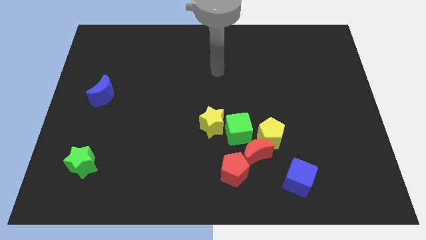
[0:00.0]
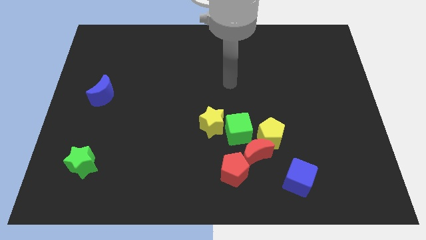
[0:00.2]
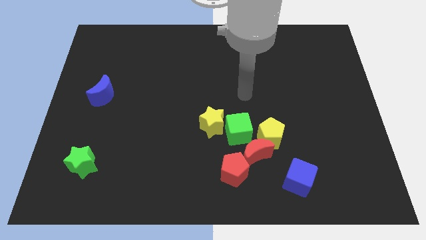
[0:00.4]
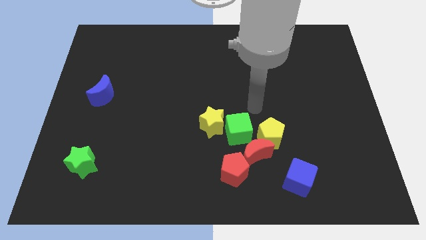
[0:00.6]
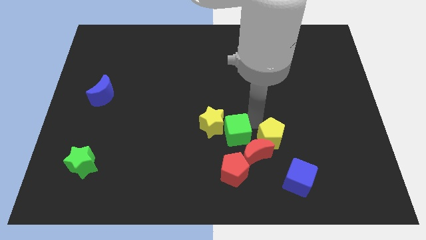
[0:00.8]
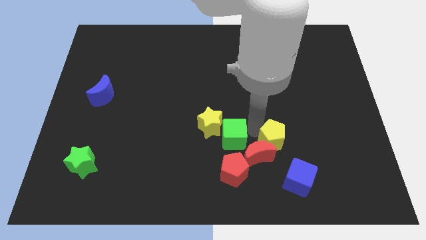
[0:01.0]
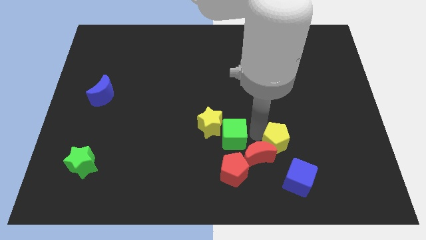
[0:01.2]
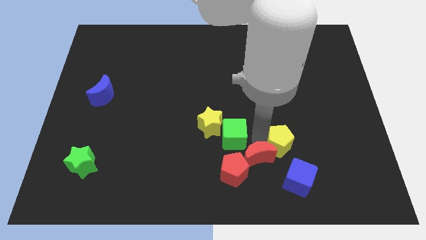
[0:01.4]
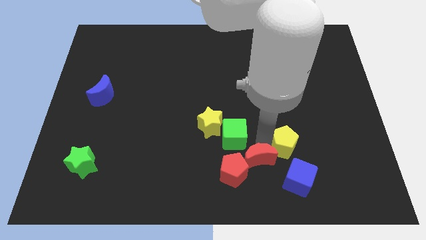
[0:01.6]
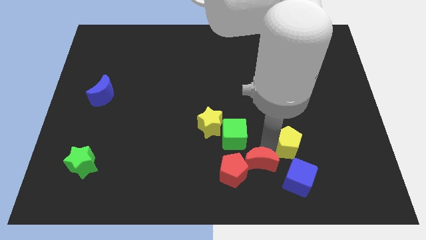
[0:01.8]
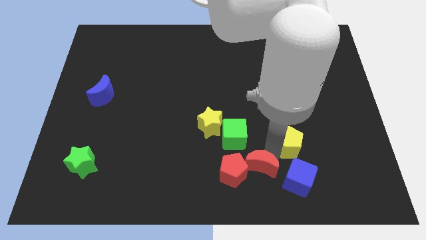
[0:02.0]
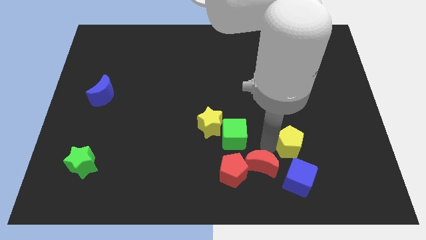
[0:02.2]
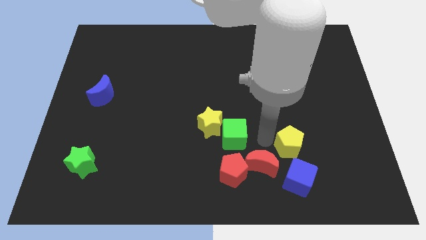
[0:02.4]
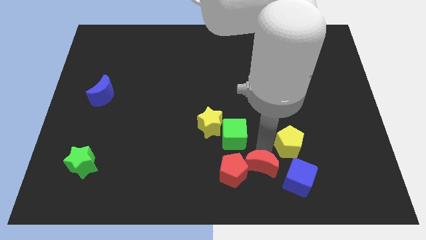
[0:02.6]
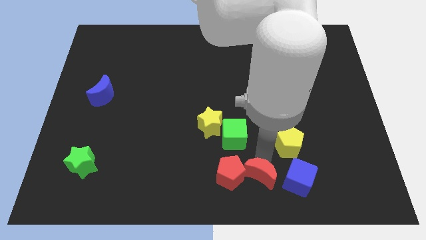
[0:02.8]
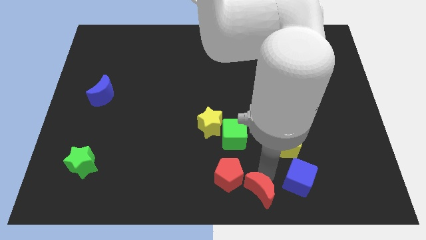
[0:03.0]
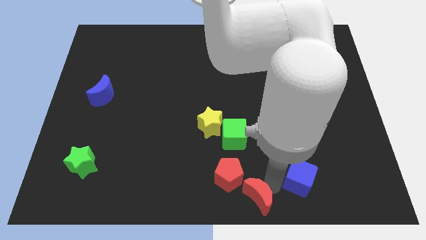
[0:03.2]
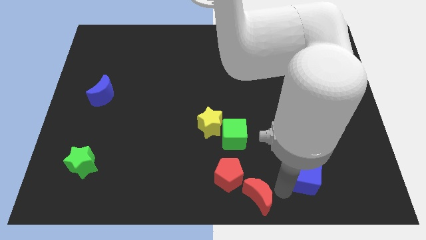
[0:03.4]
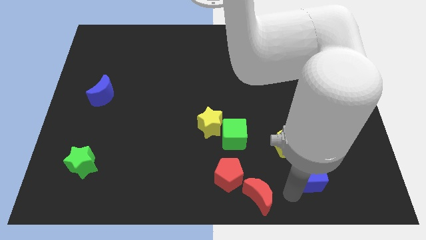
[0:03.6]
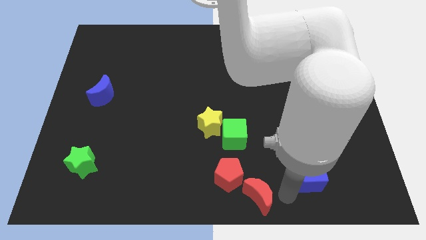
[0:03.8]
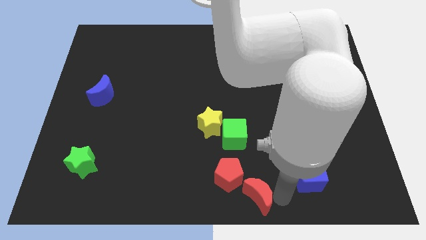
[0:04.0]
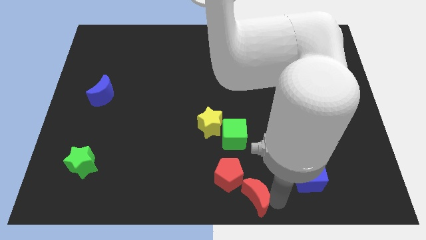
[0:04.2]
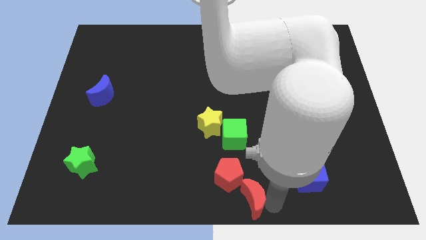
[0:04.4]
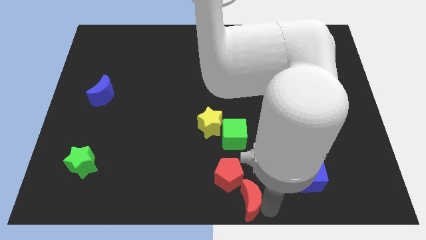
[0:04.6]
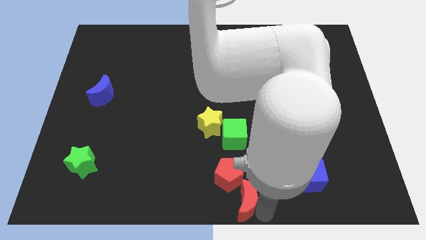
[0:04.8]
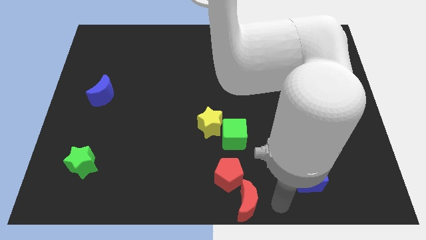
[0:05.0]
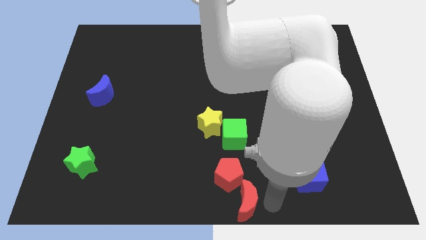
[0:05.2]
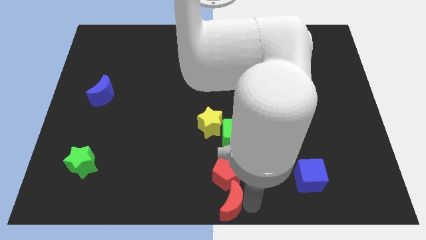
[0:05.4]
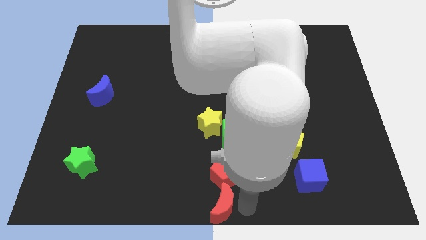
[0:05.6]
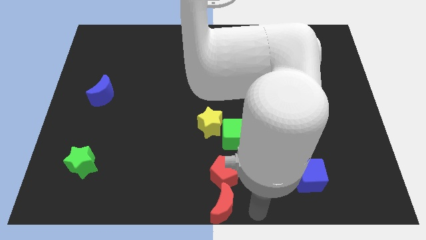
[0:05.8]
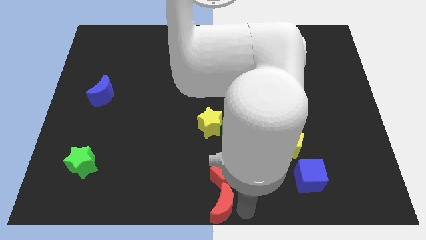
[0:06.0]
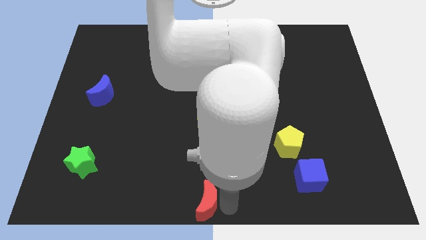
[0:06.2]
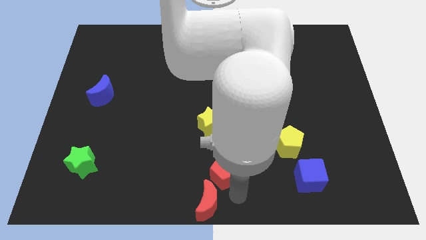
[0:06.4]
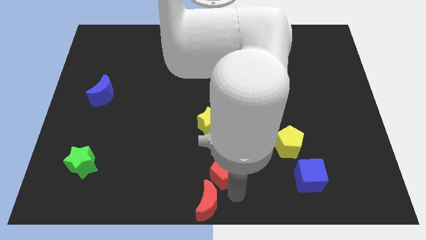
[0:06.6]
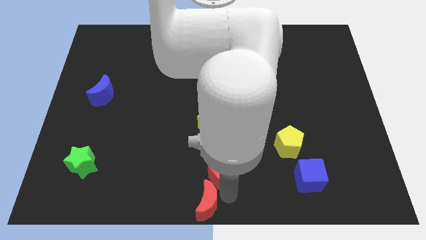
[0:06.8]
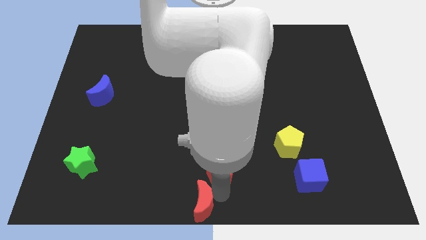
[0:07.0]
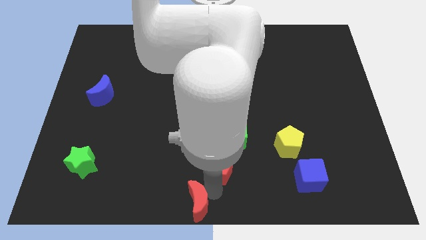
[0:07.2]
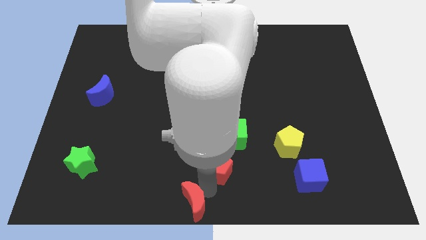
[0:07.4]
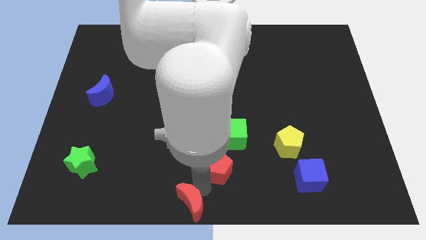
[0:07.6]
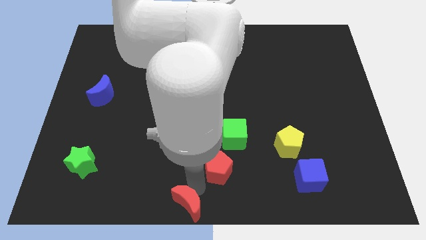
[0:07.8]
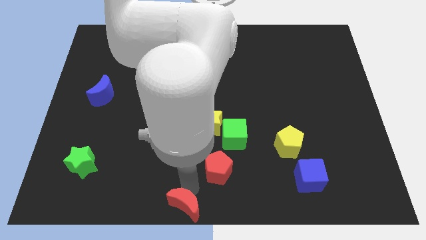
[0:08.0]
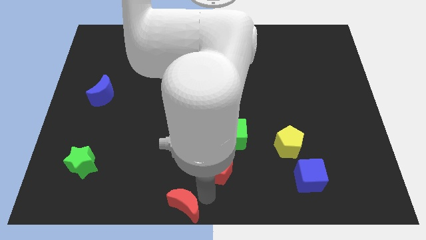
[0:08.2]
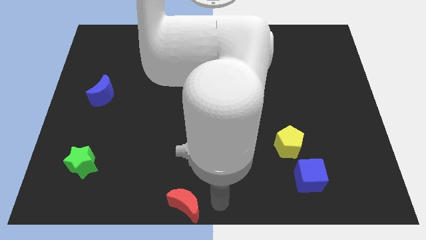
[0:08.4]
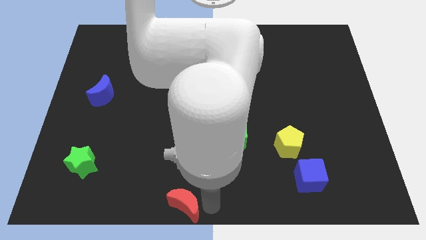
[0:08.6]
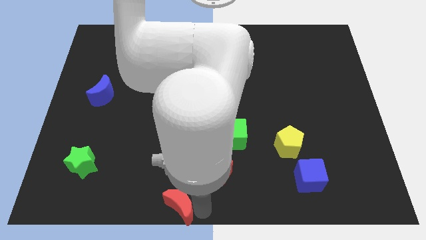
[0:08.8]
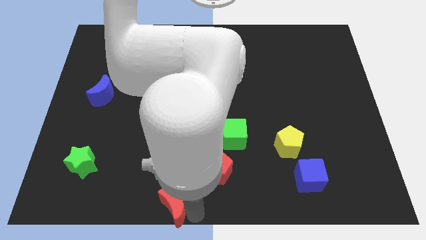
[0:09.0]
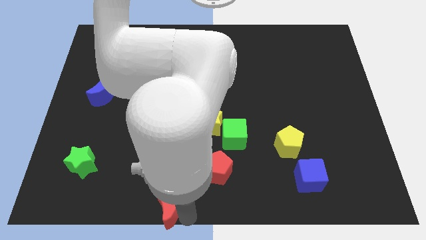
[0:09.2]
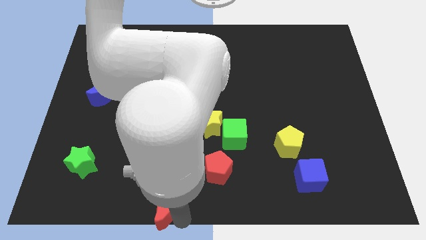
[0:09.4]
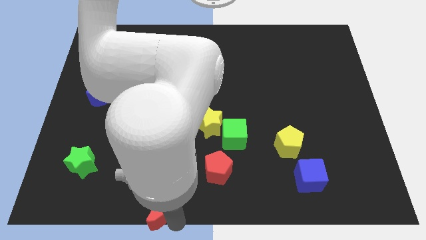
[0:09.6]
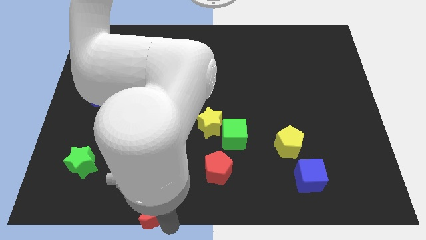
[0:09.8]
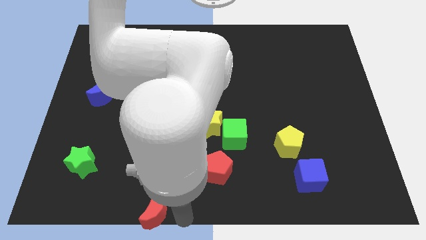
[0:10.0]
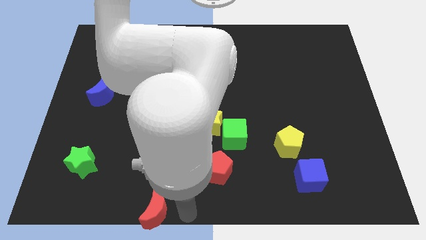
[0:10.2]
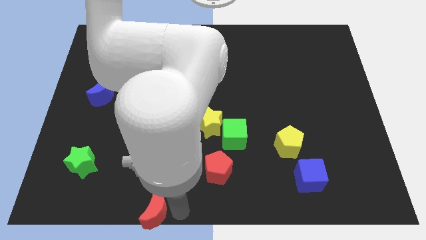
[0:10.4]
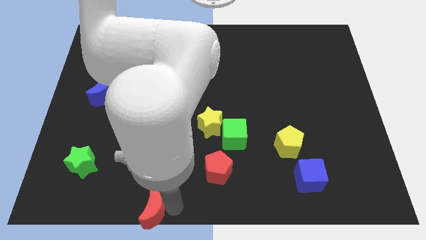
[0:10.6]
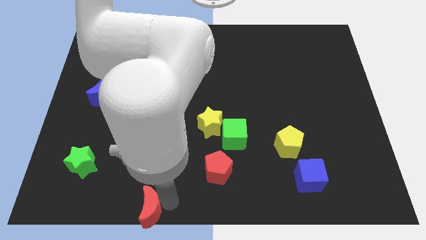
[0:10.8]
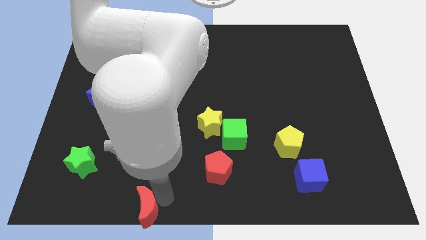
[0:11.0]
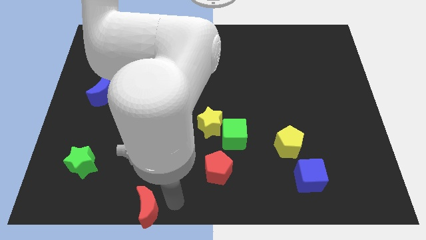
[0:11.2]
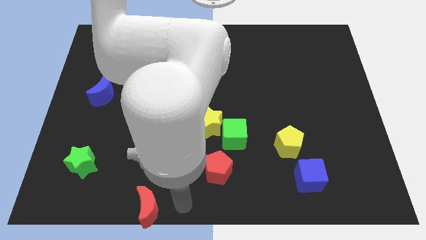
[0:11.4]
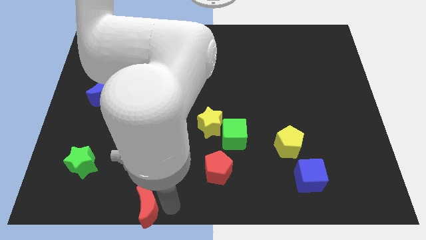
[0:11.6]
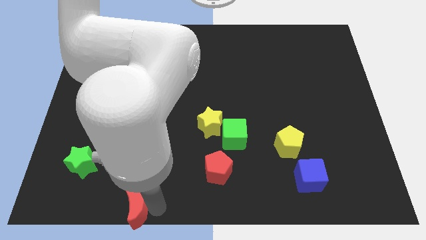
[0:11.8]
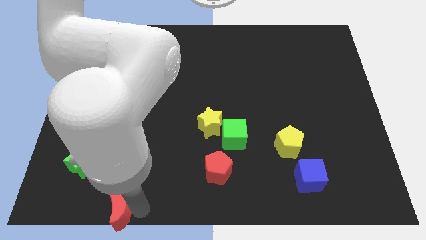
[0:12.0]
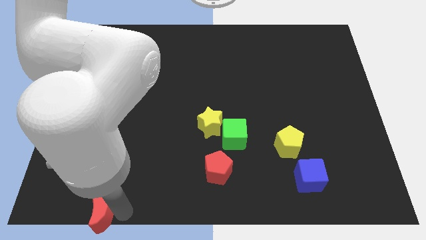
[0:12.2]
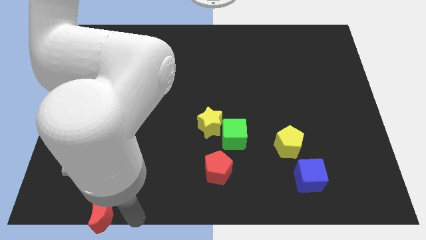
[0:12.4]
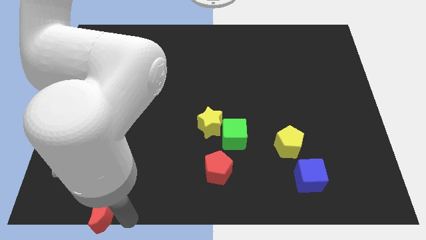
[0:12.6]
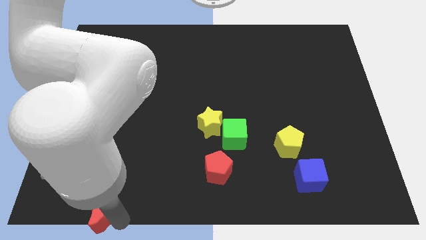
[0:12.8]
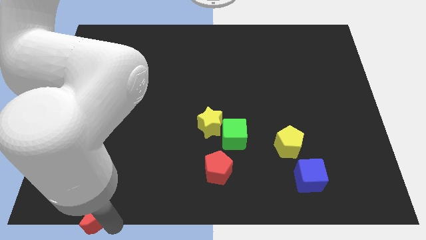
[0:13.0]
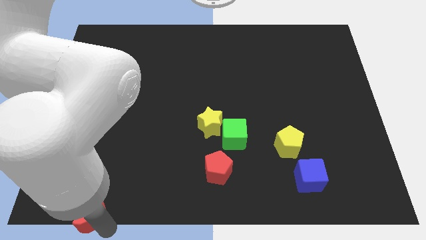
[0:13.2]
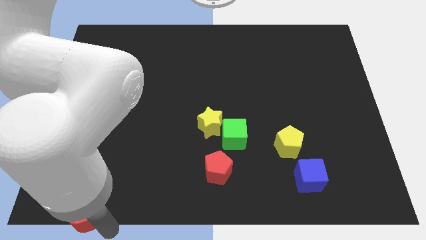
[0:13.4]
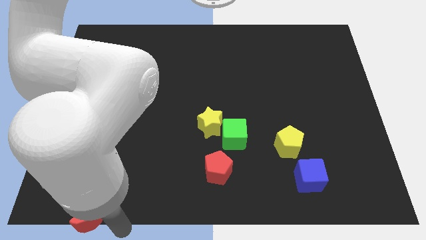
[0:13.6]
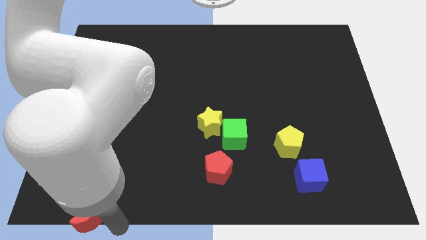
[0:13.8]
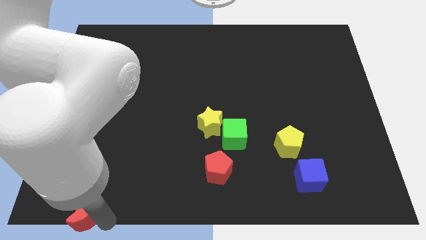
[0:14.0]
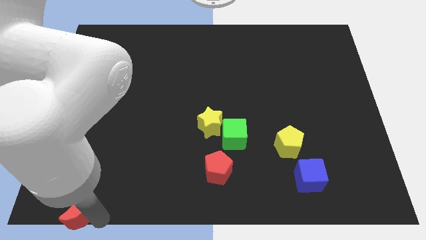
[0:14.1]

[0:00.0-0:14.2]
push the red moon to the bottom left of the board
